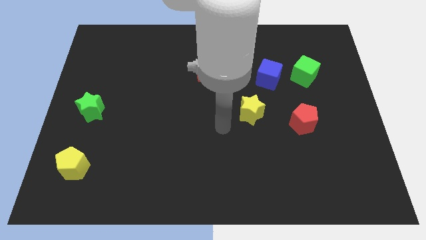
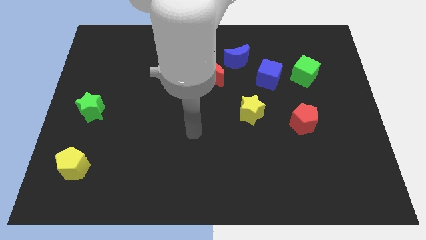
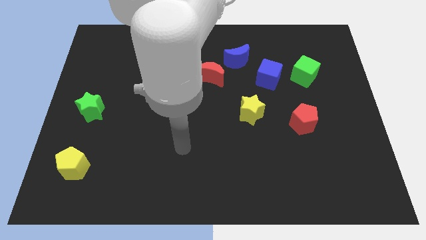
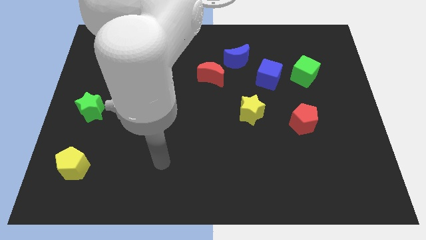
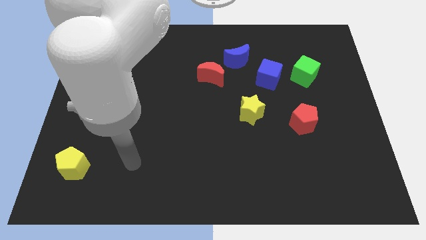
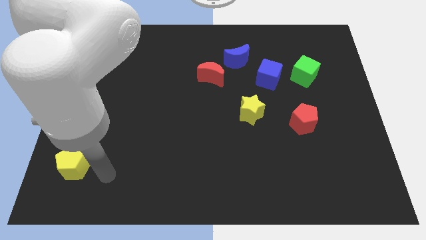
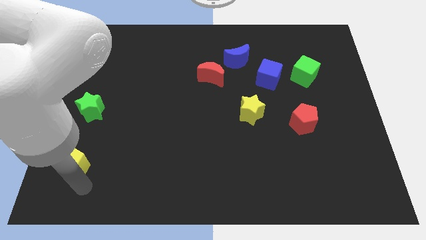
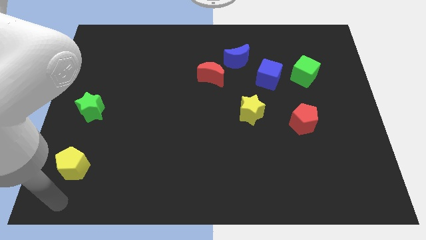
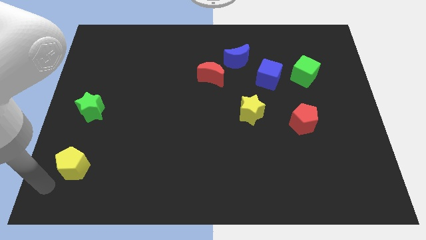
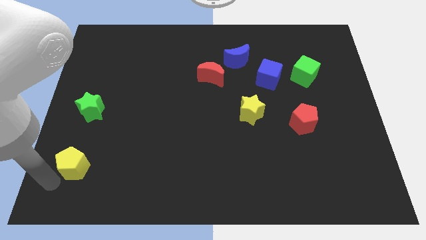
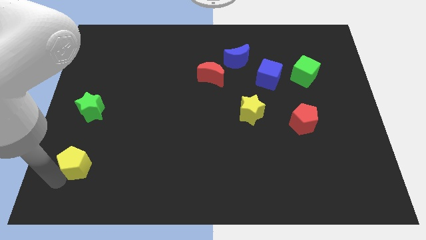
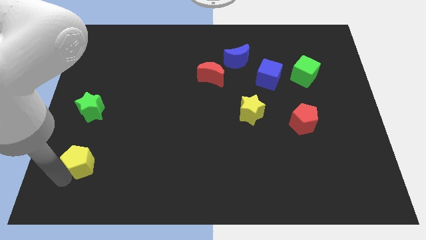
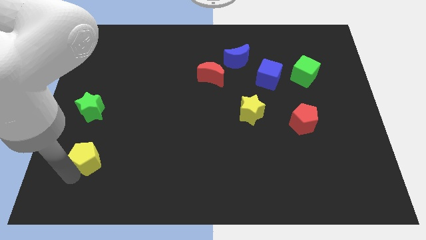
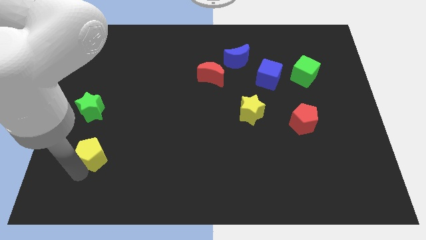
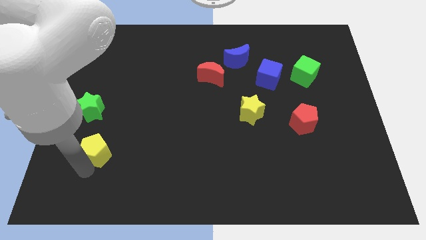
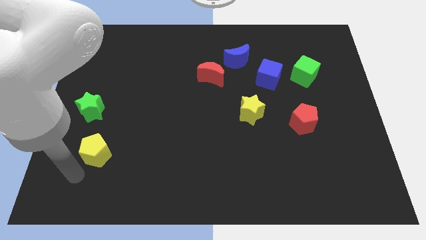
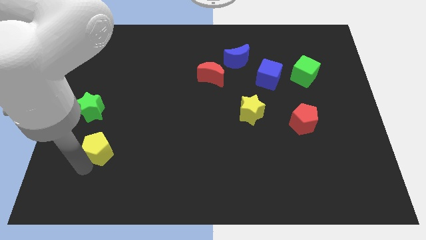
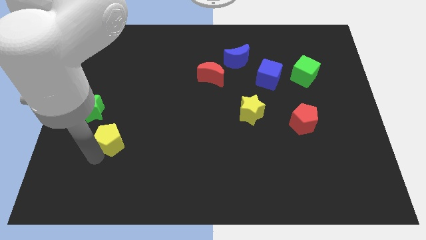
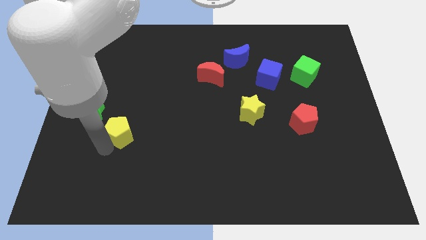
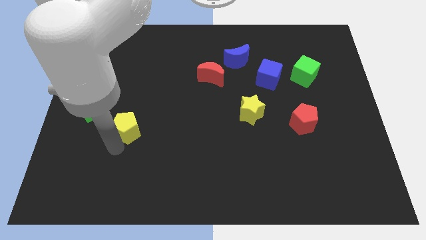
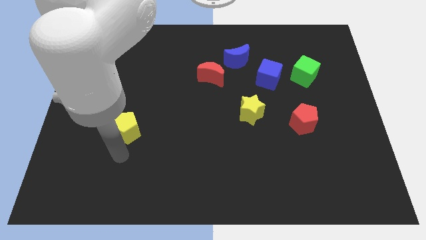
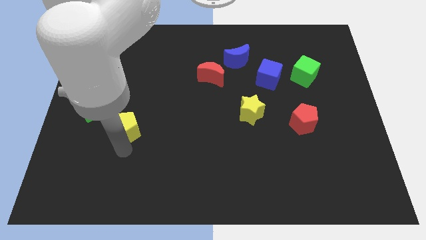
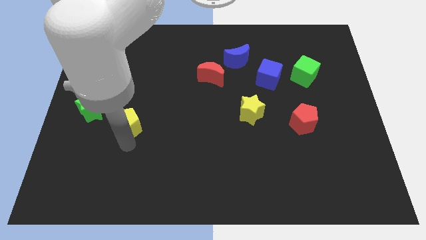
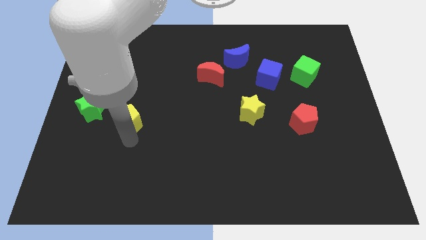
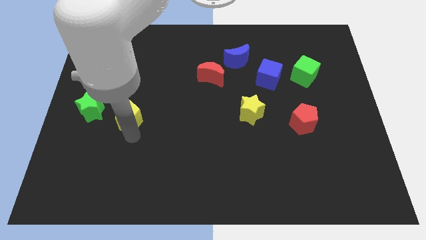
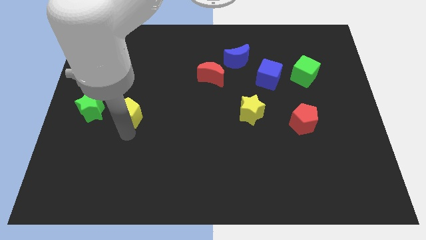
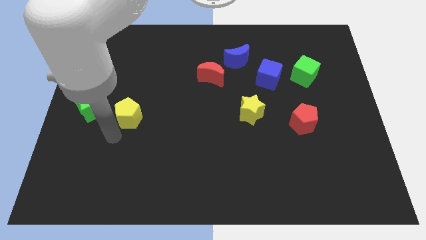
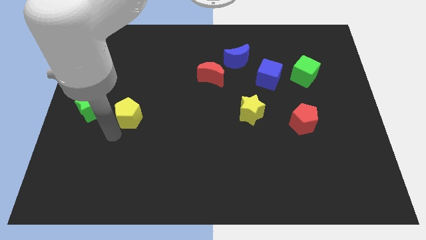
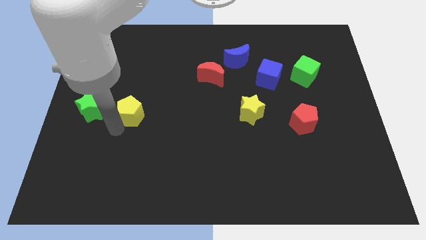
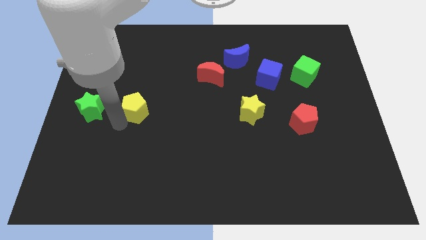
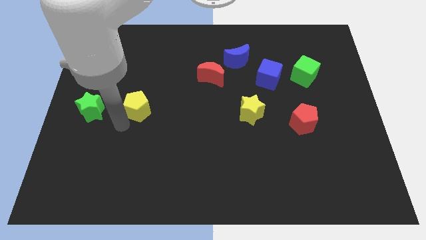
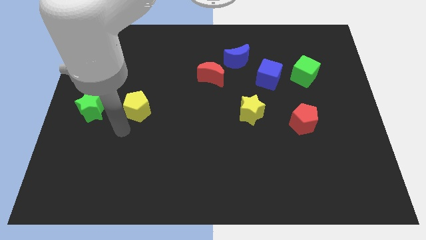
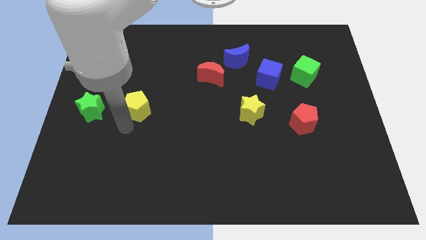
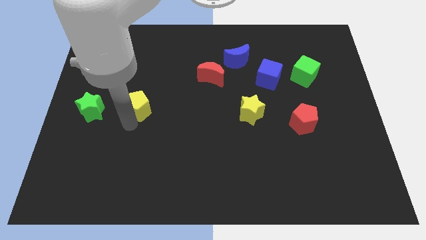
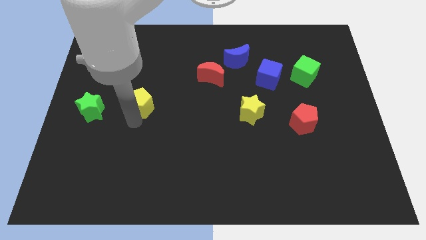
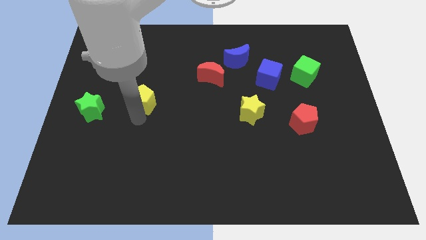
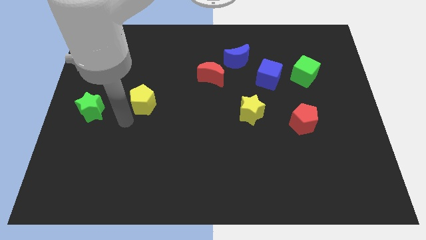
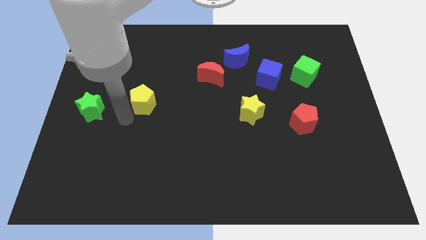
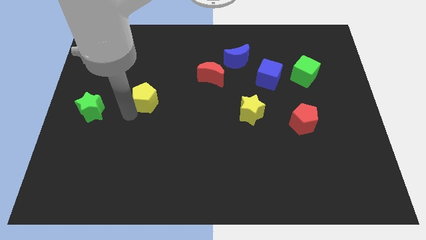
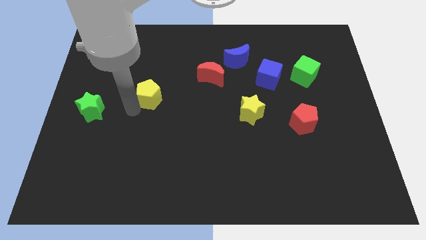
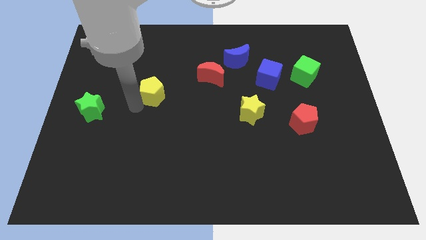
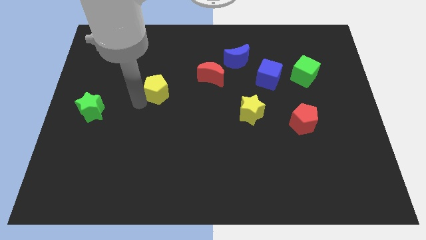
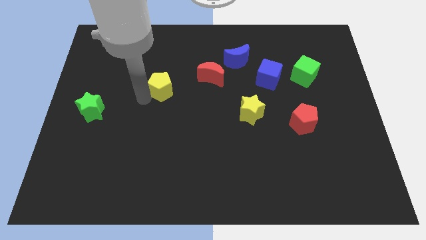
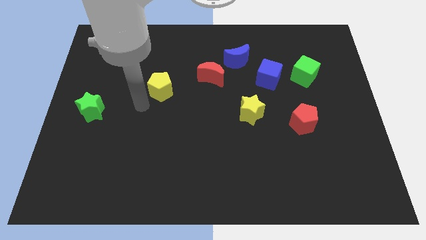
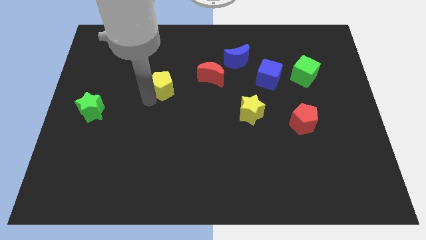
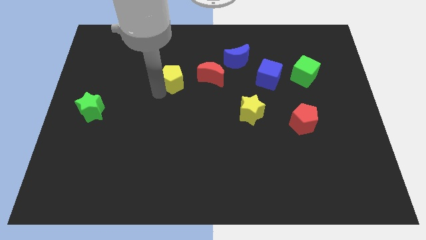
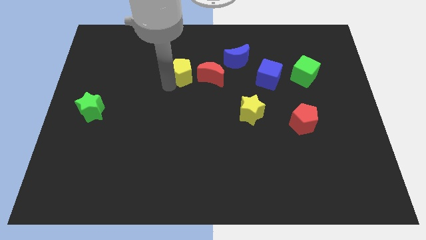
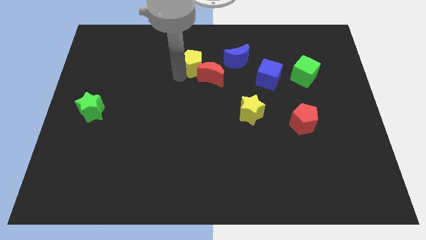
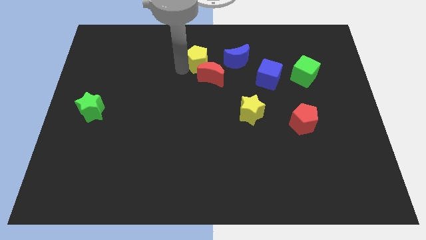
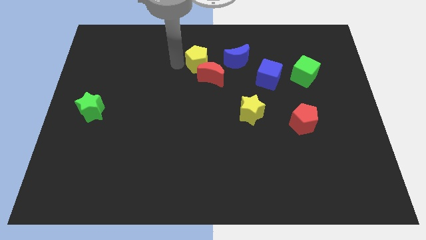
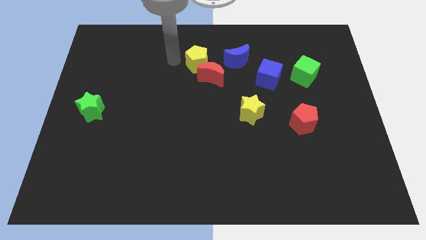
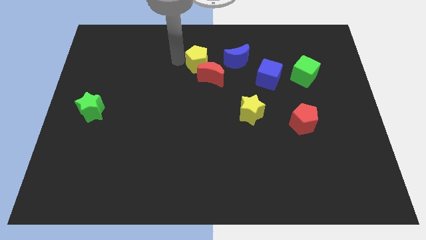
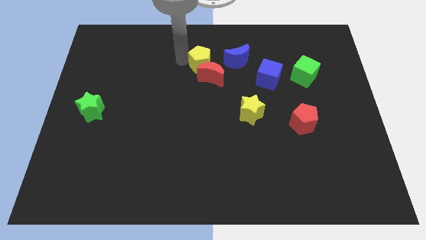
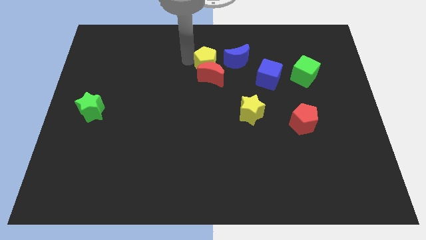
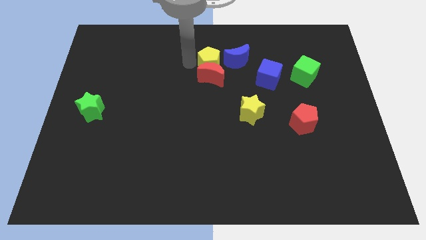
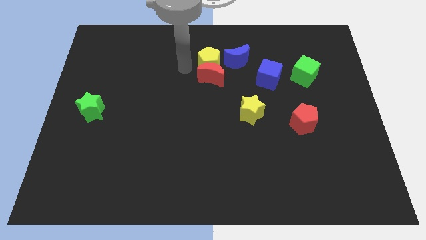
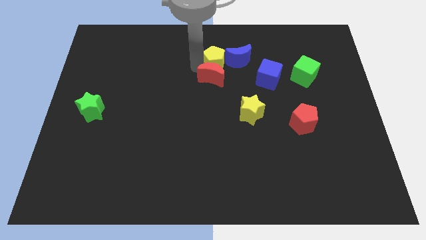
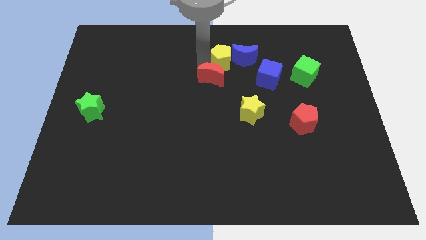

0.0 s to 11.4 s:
slide the yellow pentagon to the blue moon

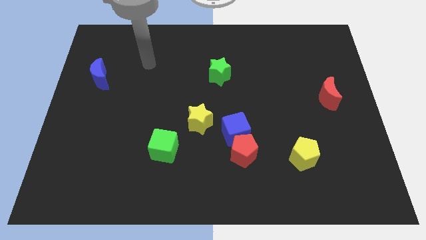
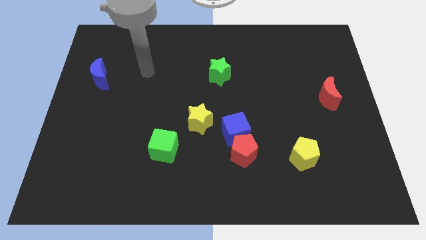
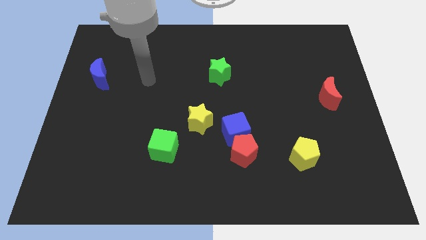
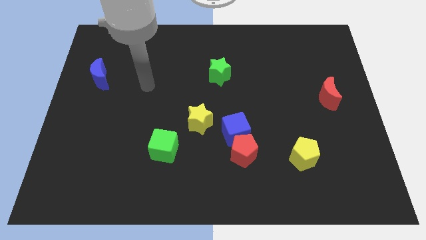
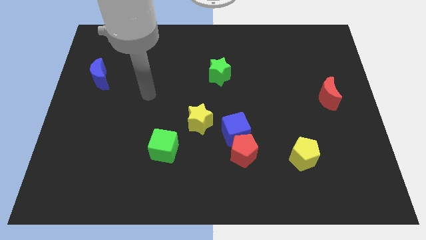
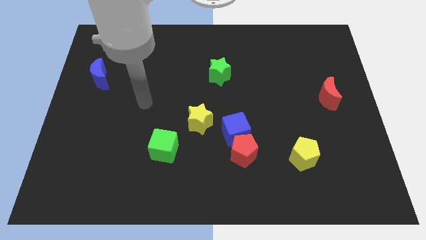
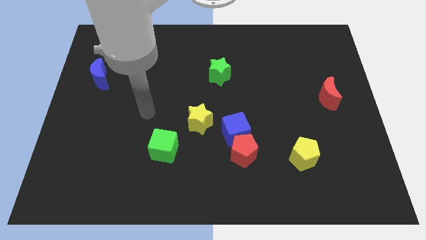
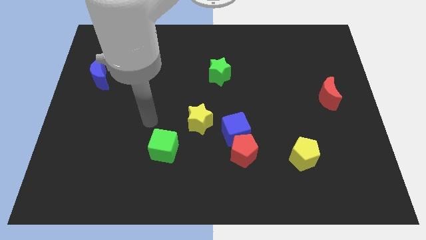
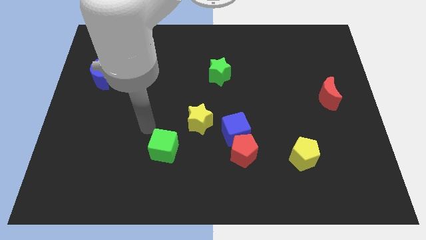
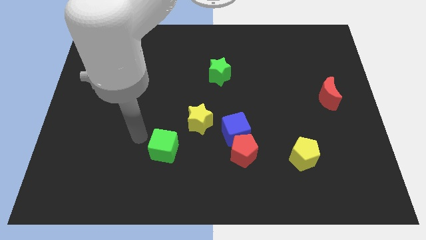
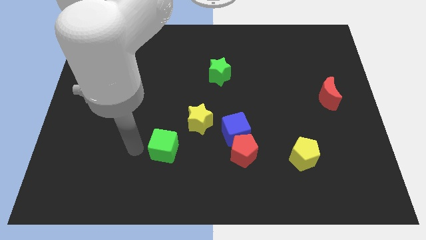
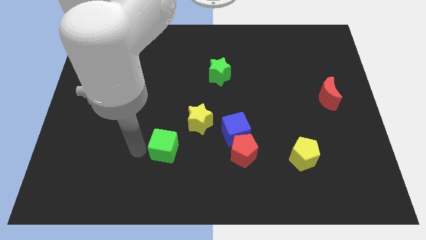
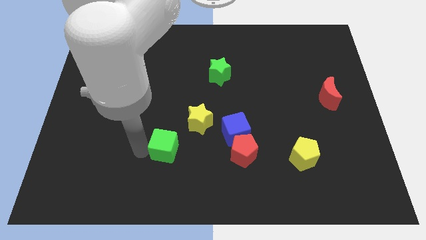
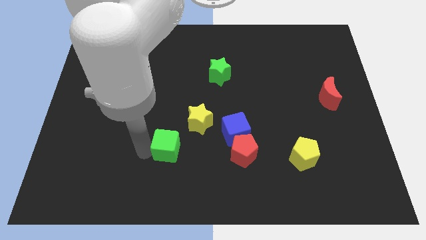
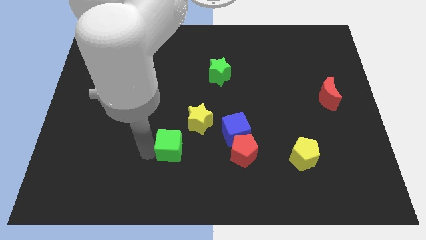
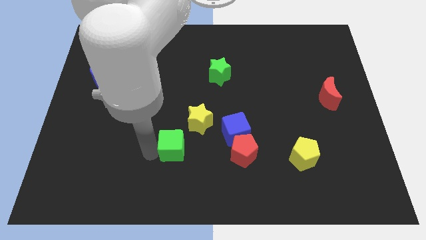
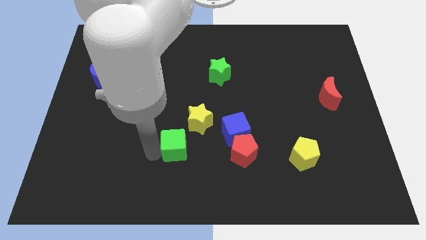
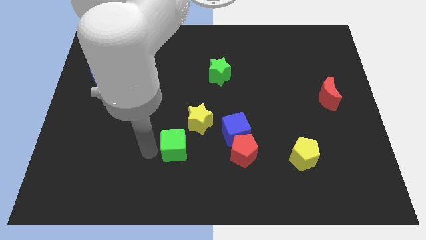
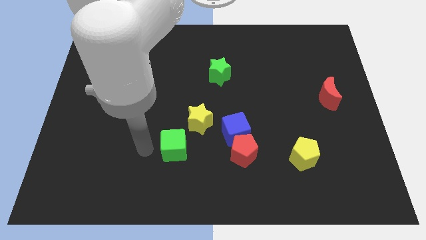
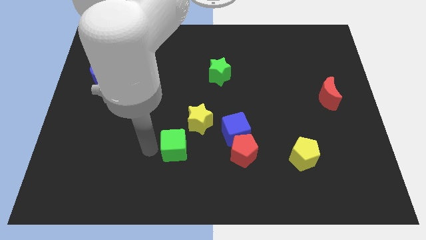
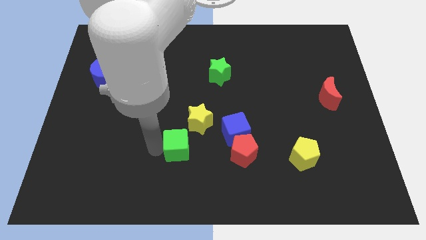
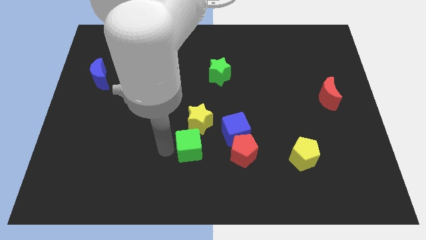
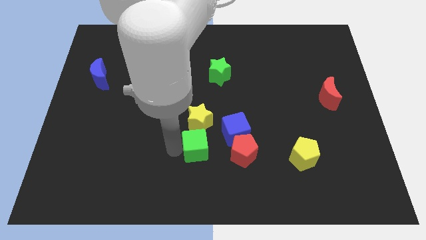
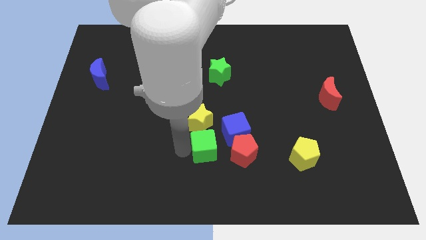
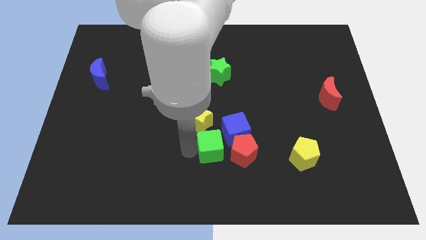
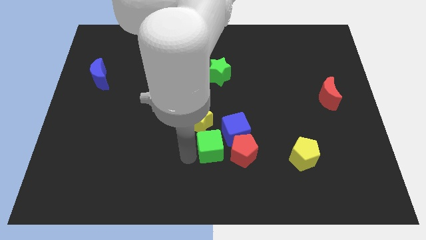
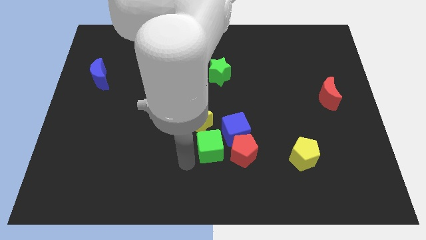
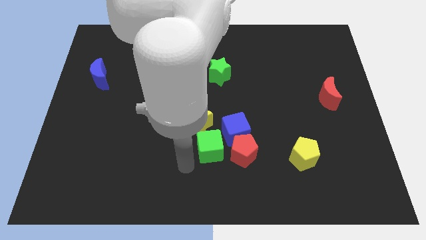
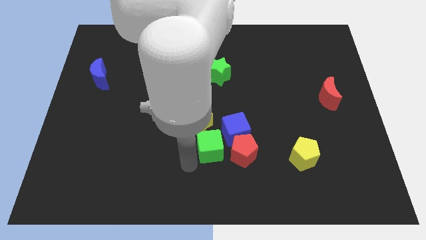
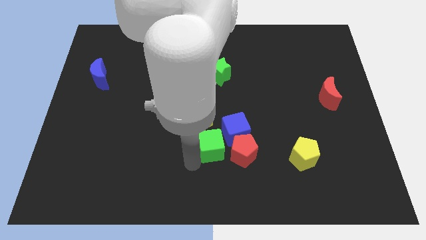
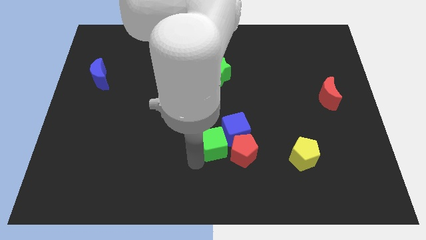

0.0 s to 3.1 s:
push the green cube close to the blue cube
